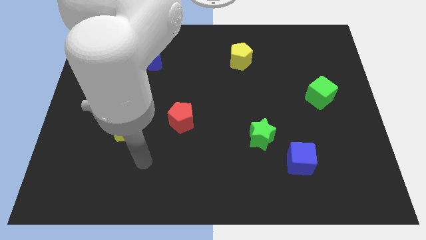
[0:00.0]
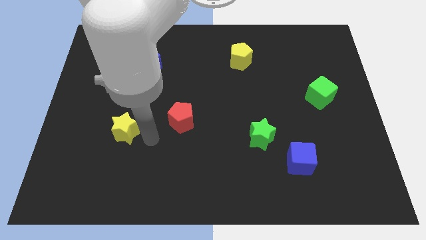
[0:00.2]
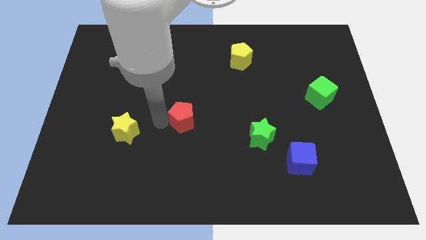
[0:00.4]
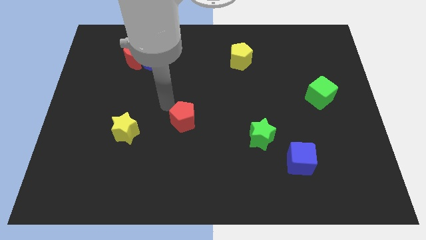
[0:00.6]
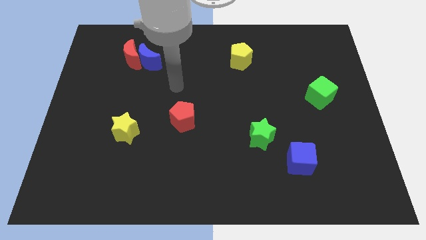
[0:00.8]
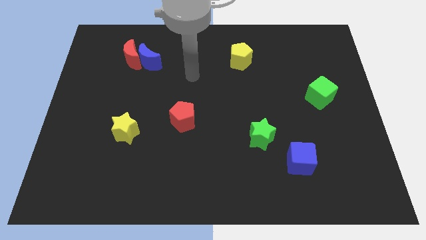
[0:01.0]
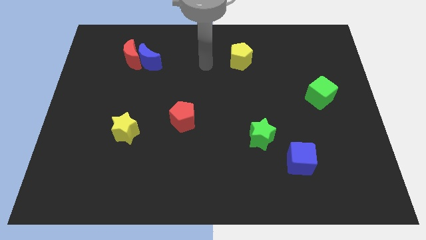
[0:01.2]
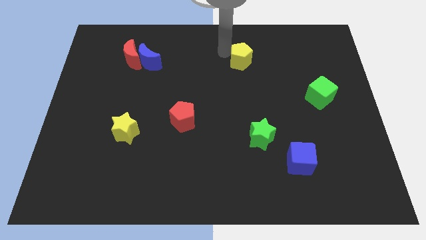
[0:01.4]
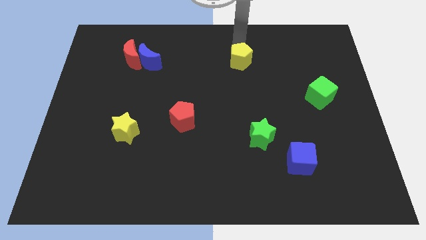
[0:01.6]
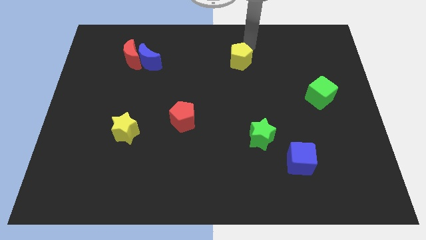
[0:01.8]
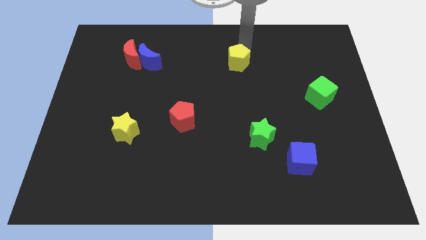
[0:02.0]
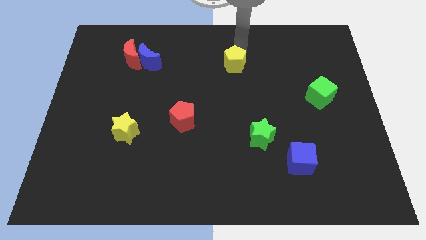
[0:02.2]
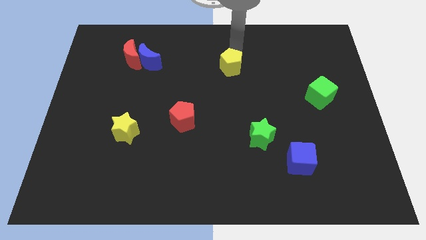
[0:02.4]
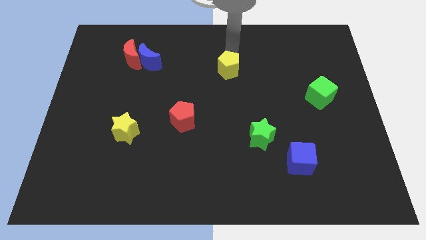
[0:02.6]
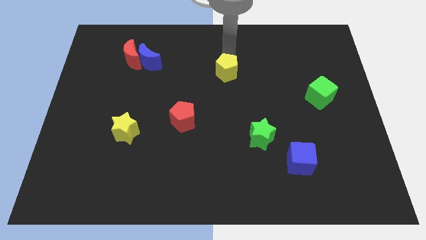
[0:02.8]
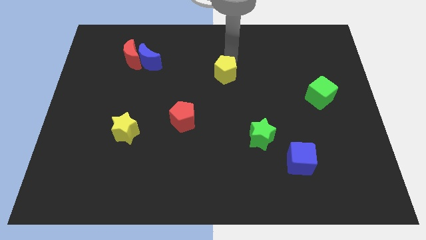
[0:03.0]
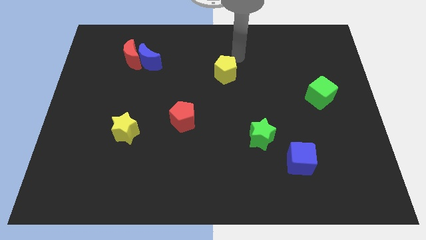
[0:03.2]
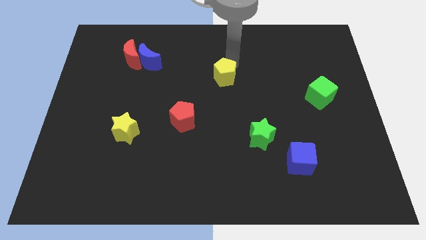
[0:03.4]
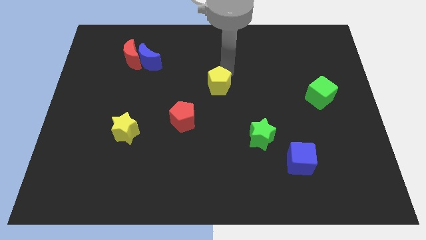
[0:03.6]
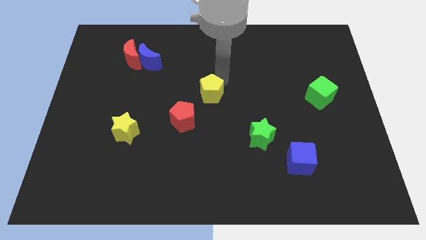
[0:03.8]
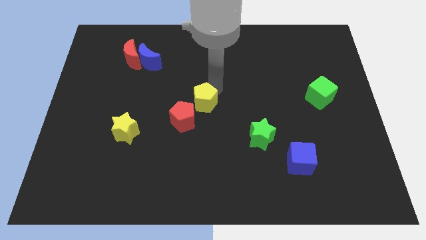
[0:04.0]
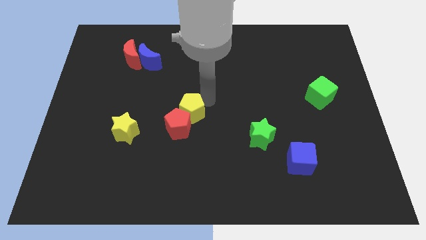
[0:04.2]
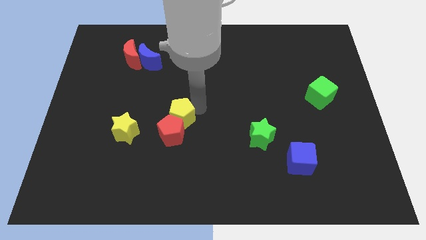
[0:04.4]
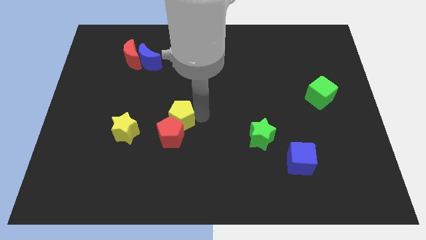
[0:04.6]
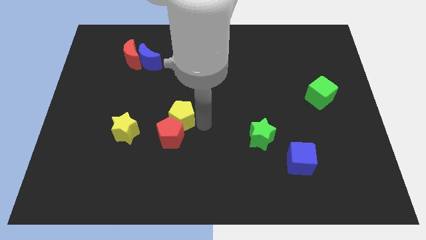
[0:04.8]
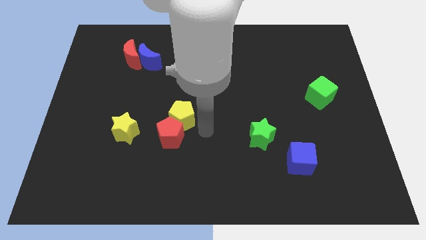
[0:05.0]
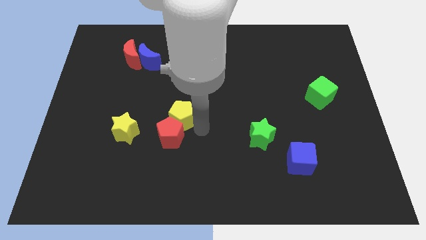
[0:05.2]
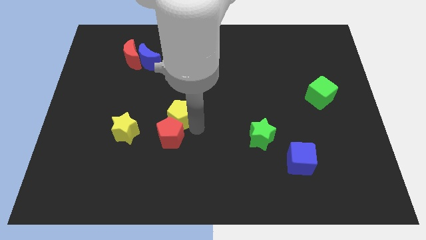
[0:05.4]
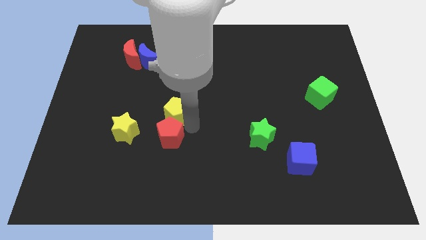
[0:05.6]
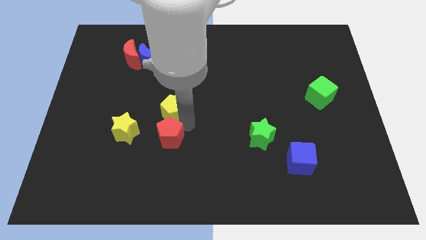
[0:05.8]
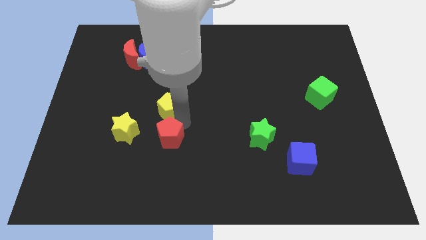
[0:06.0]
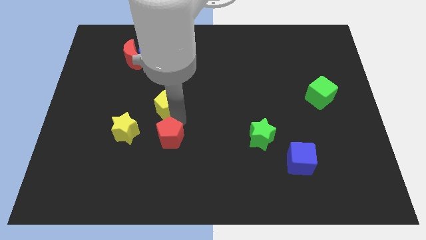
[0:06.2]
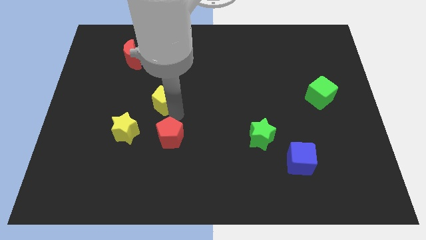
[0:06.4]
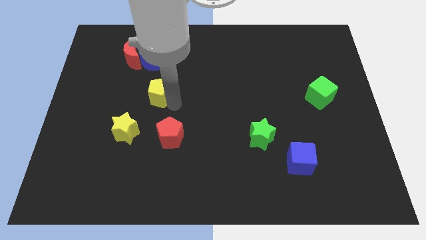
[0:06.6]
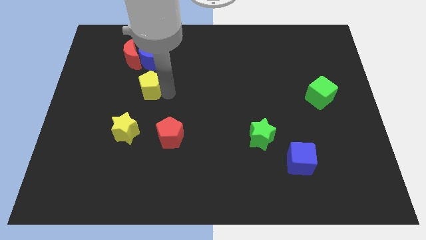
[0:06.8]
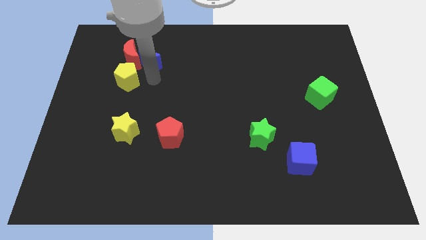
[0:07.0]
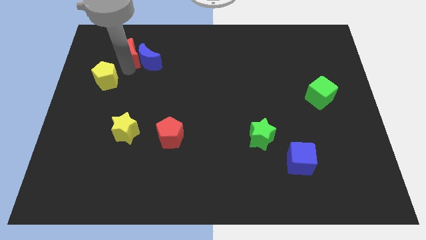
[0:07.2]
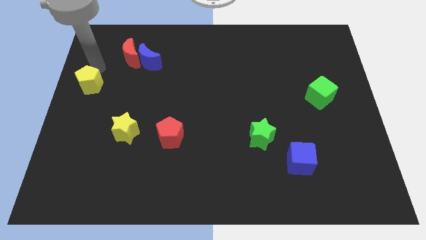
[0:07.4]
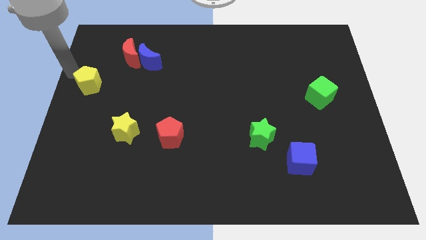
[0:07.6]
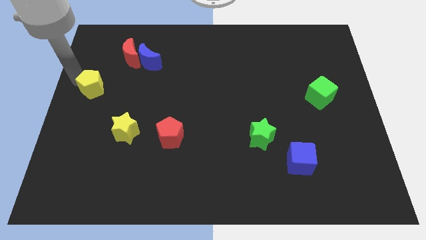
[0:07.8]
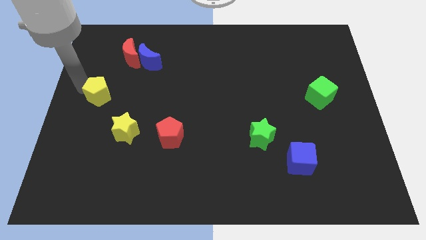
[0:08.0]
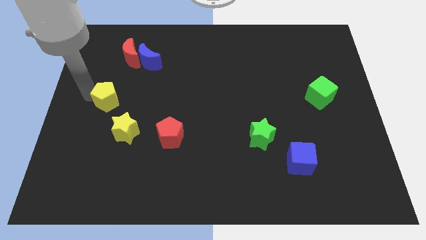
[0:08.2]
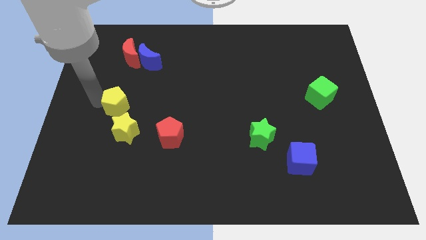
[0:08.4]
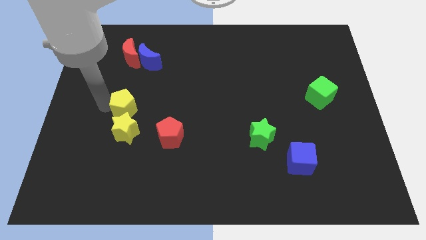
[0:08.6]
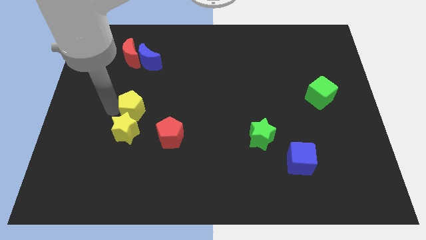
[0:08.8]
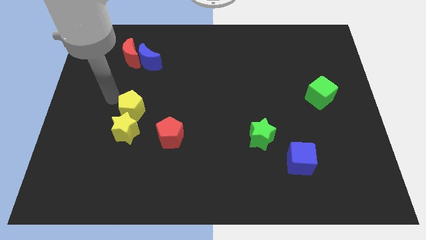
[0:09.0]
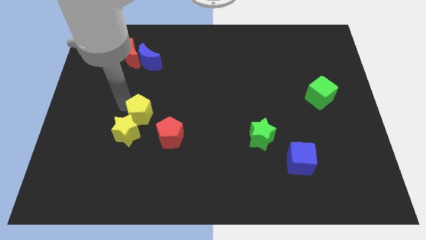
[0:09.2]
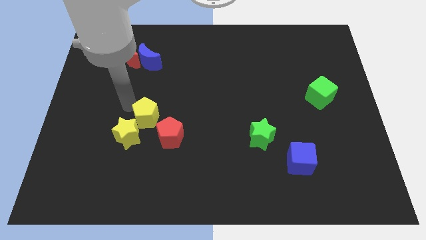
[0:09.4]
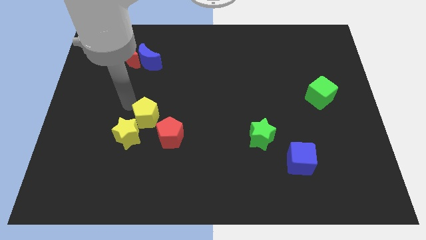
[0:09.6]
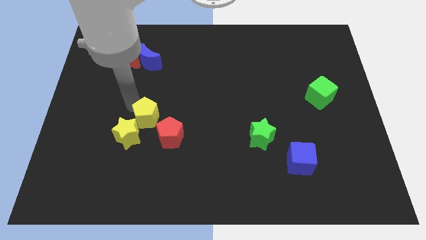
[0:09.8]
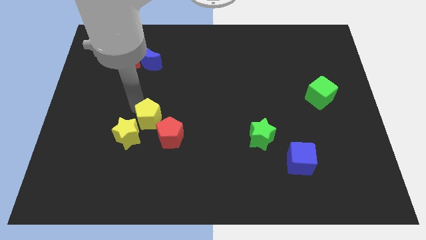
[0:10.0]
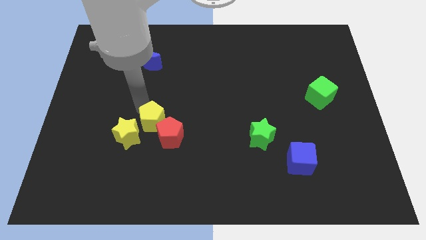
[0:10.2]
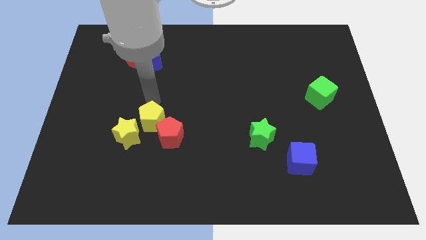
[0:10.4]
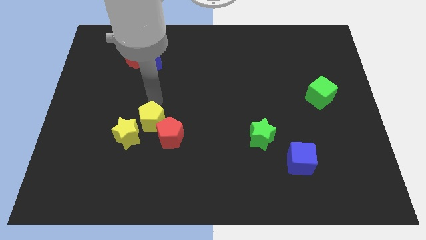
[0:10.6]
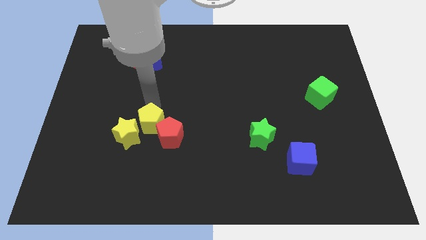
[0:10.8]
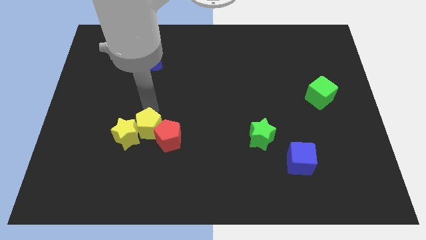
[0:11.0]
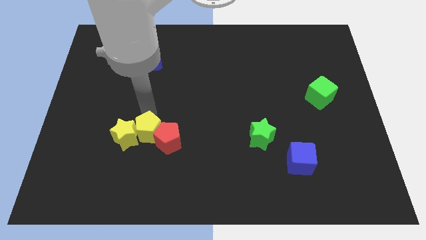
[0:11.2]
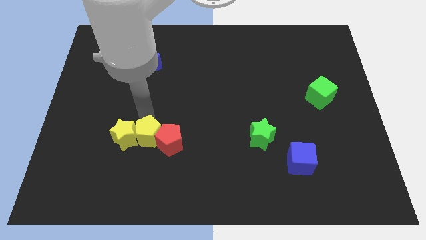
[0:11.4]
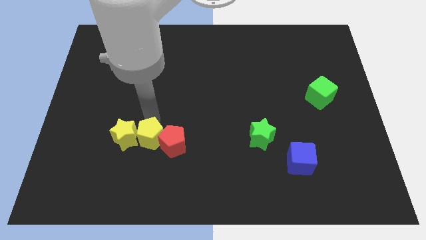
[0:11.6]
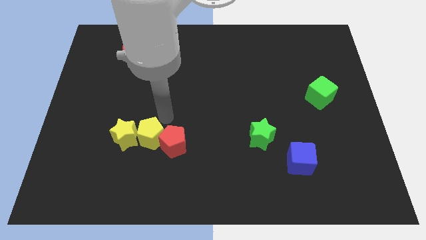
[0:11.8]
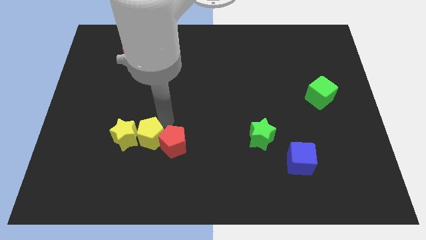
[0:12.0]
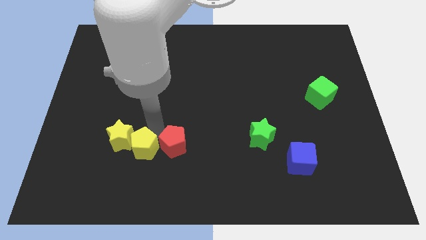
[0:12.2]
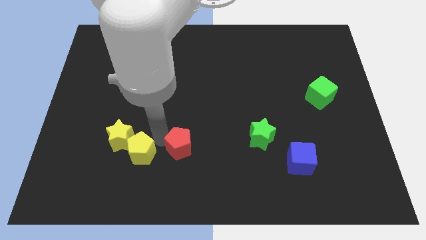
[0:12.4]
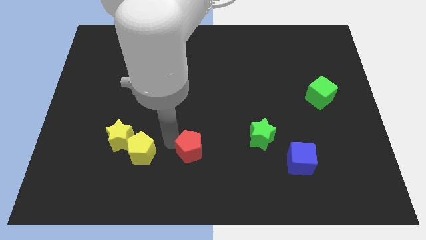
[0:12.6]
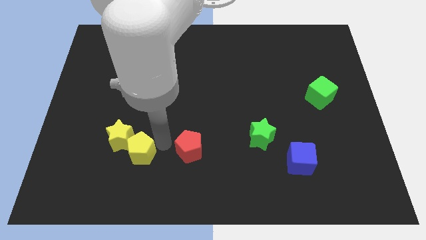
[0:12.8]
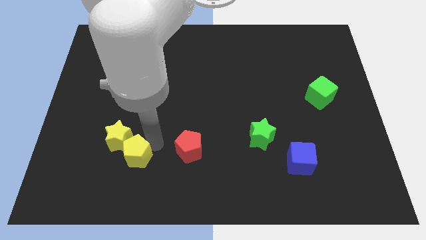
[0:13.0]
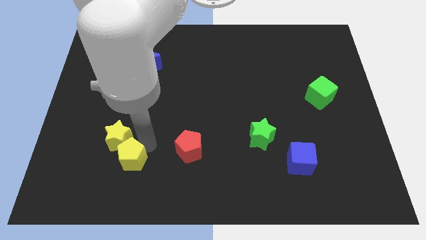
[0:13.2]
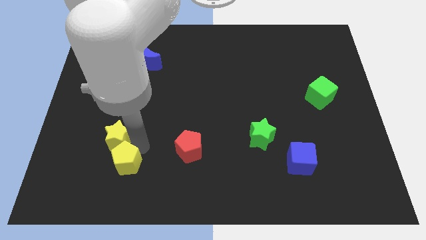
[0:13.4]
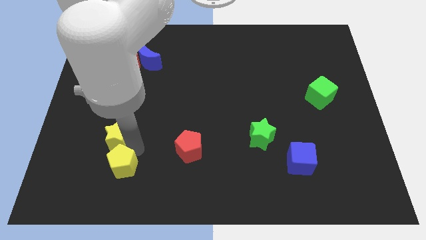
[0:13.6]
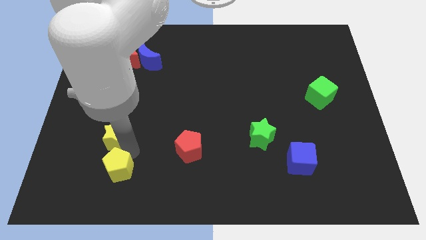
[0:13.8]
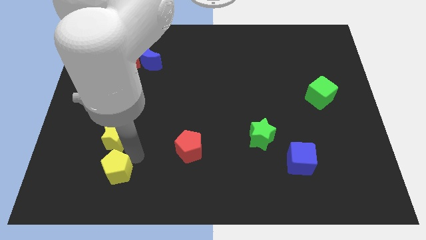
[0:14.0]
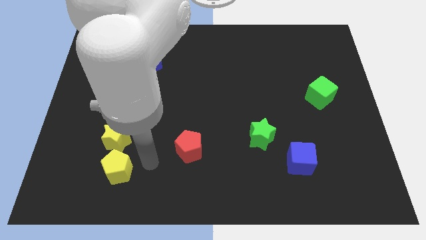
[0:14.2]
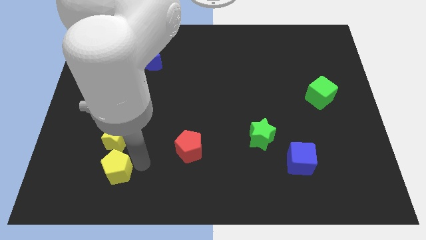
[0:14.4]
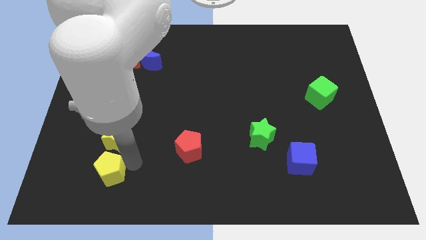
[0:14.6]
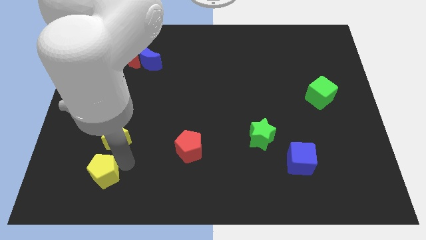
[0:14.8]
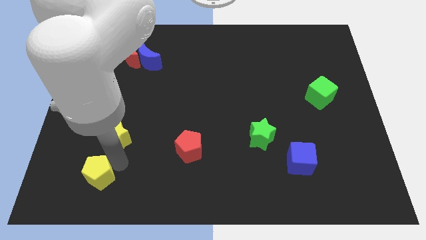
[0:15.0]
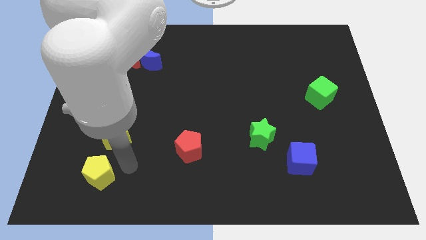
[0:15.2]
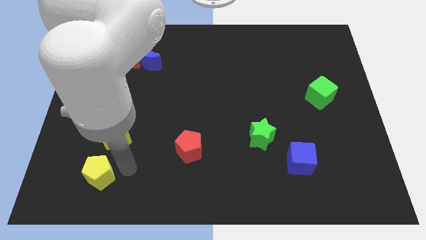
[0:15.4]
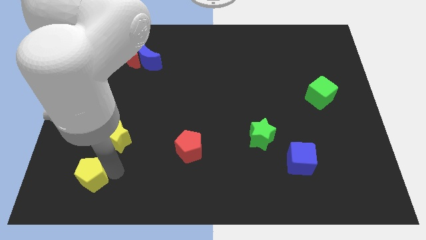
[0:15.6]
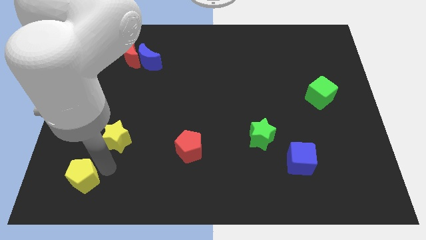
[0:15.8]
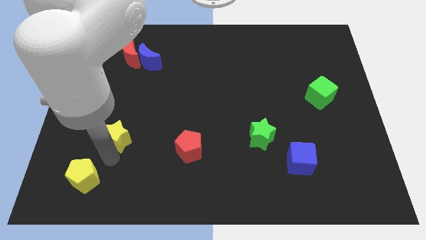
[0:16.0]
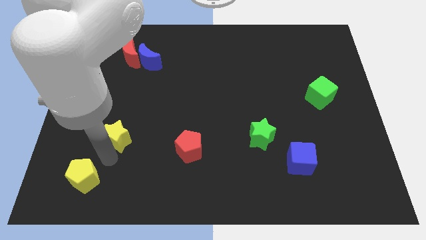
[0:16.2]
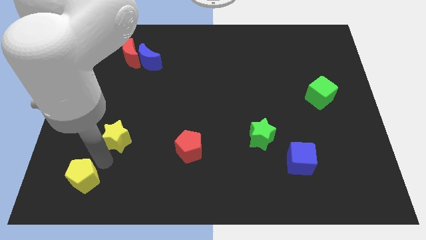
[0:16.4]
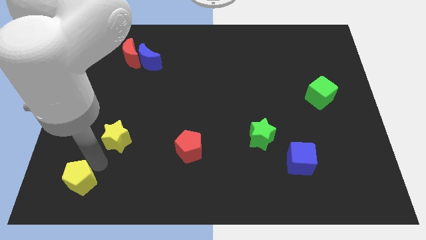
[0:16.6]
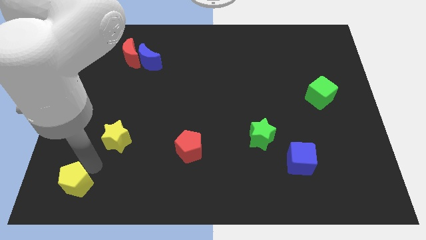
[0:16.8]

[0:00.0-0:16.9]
push the yellow pentagon to the bottom left of the board
